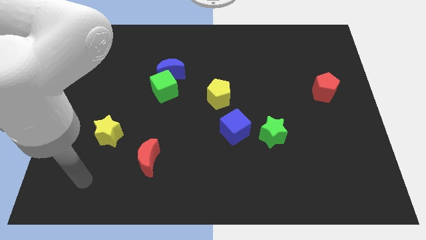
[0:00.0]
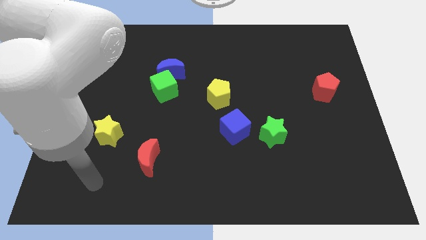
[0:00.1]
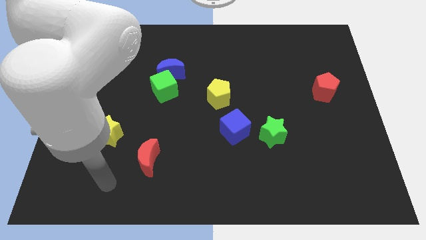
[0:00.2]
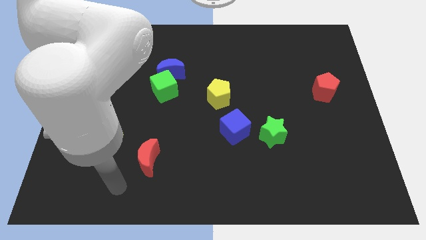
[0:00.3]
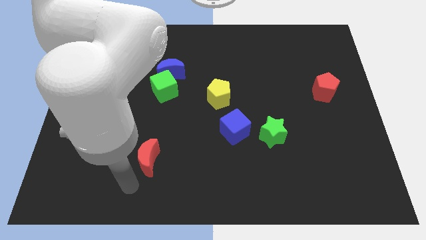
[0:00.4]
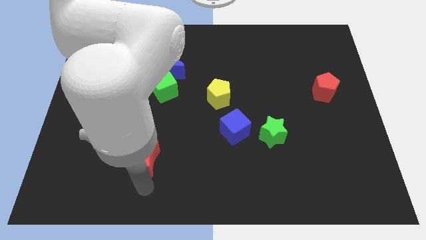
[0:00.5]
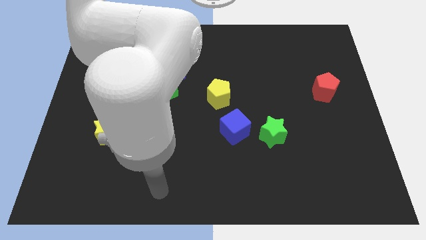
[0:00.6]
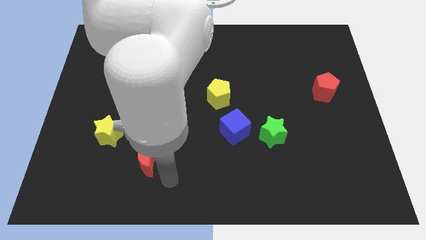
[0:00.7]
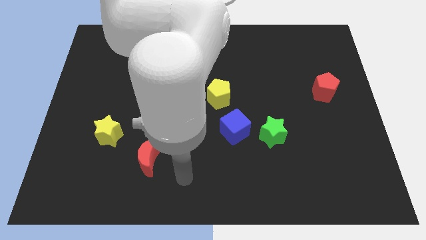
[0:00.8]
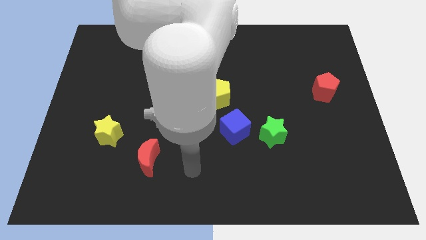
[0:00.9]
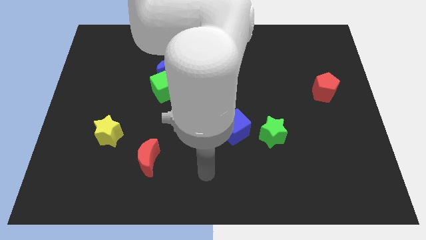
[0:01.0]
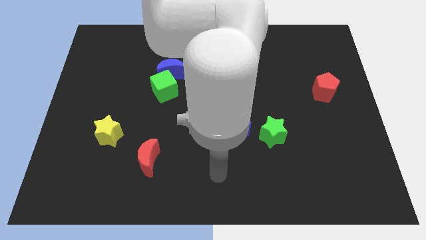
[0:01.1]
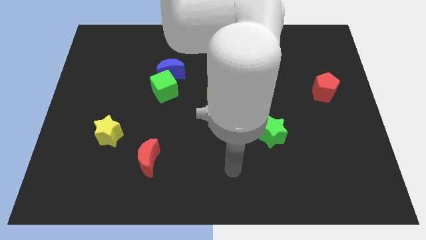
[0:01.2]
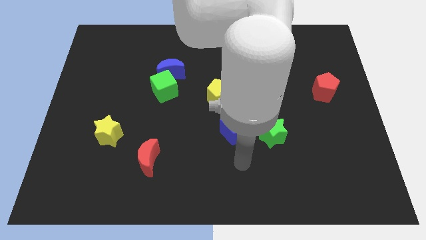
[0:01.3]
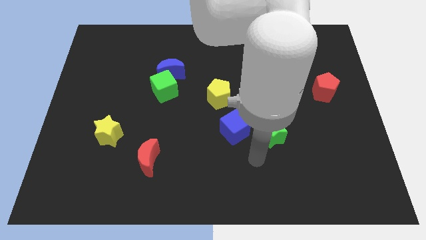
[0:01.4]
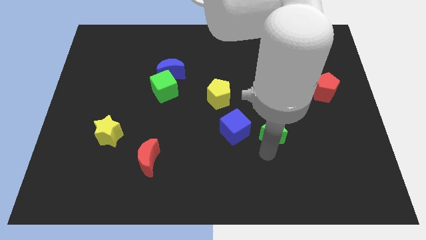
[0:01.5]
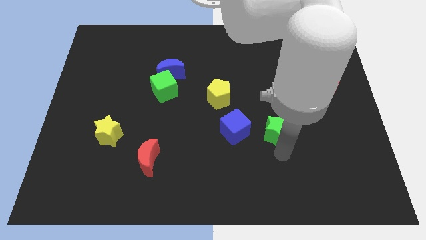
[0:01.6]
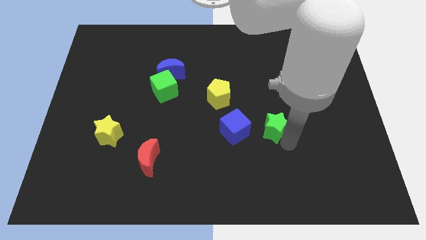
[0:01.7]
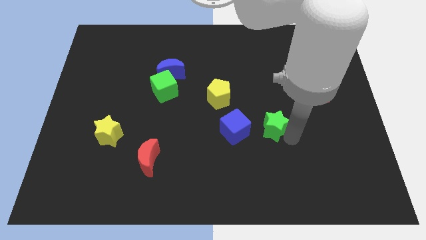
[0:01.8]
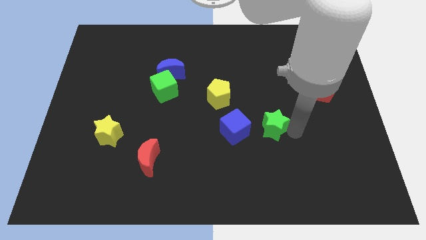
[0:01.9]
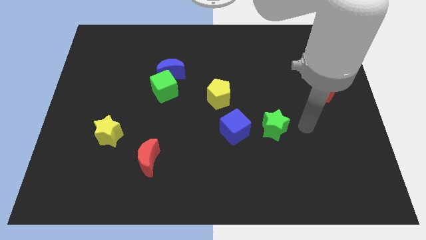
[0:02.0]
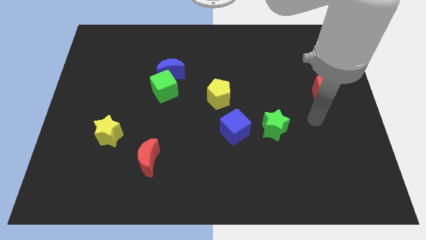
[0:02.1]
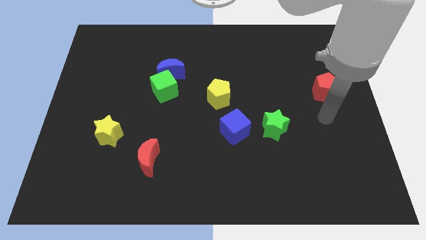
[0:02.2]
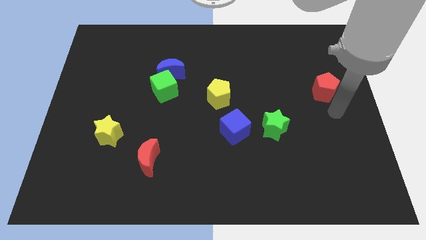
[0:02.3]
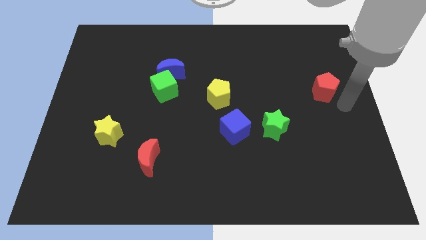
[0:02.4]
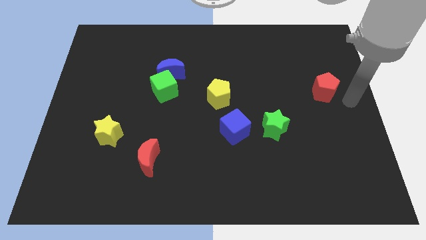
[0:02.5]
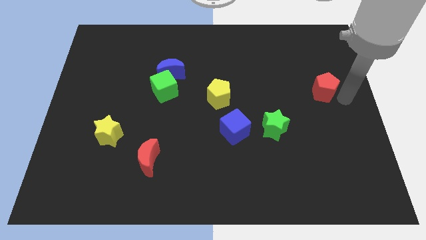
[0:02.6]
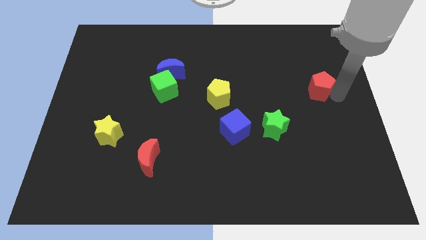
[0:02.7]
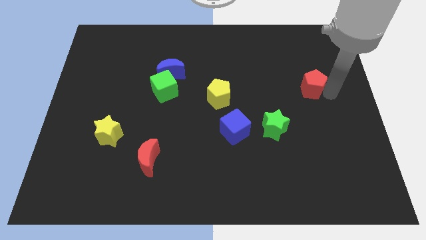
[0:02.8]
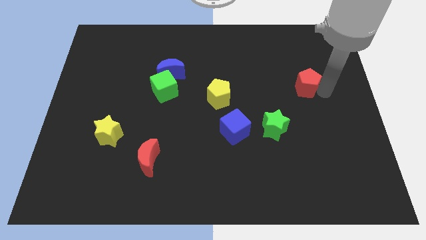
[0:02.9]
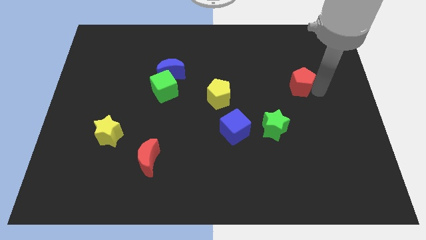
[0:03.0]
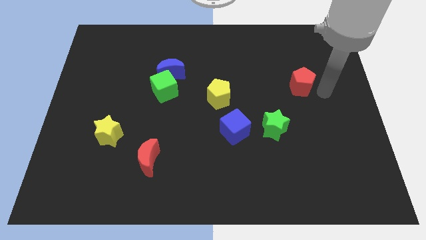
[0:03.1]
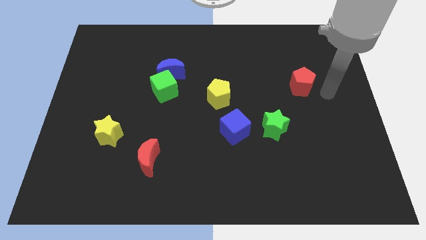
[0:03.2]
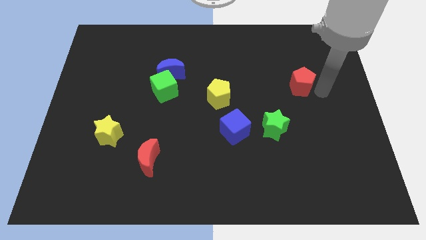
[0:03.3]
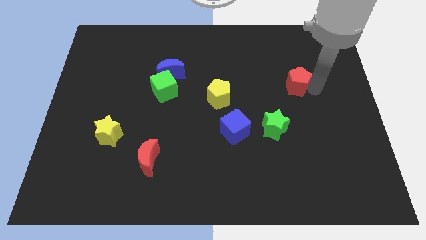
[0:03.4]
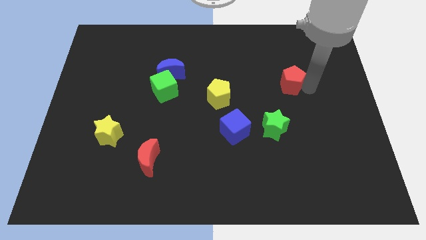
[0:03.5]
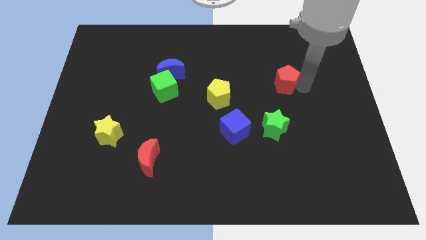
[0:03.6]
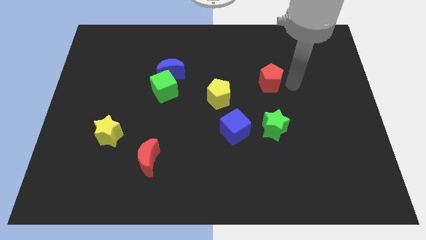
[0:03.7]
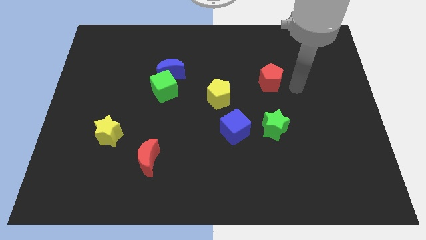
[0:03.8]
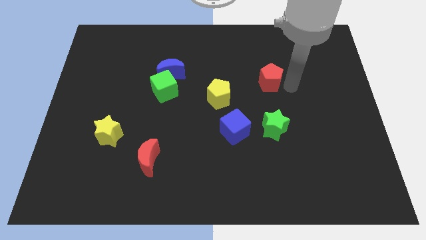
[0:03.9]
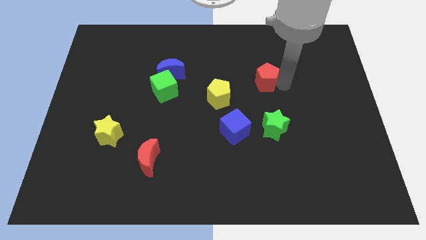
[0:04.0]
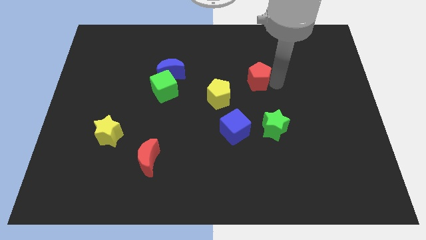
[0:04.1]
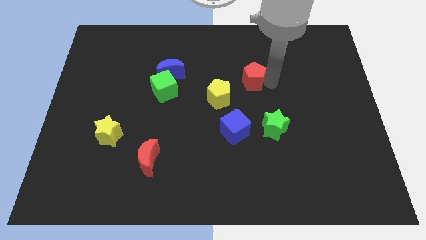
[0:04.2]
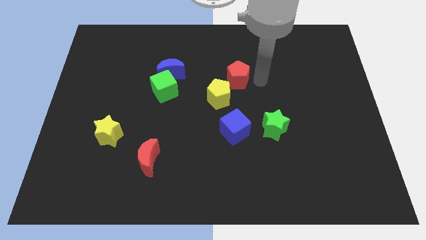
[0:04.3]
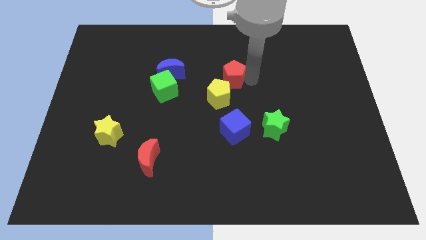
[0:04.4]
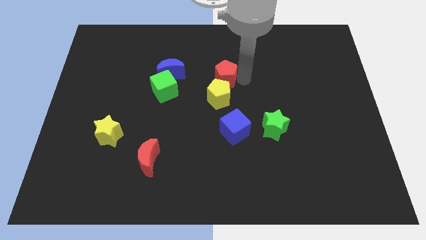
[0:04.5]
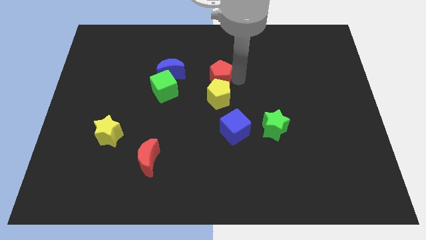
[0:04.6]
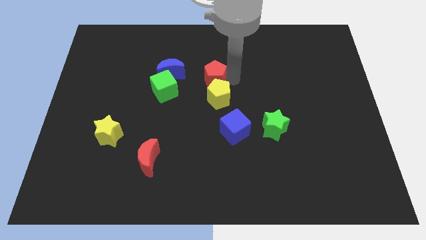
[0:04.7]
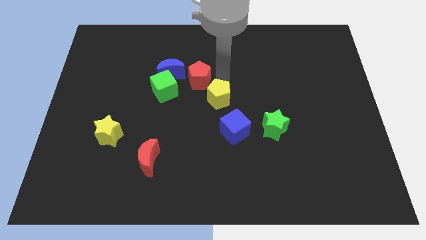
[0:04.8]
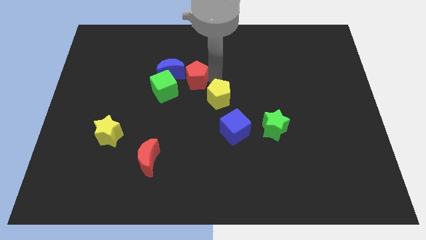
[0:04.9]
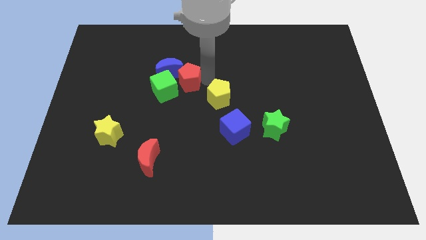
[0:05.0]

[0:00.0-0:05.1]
slide the red pentagon close to the blue moon

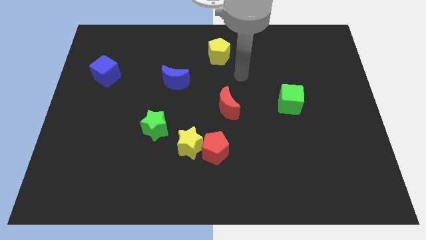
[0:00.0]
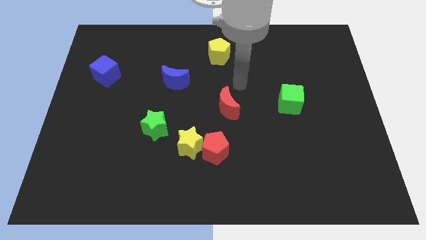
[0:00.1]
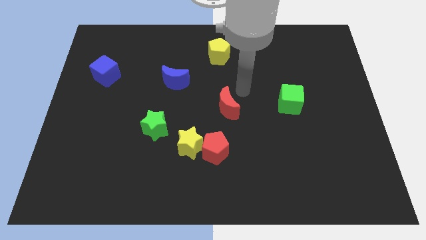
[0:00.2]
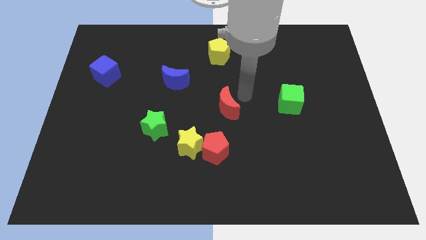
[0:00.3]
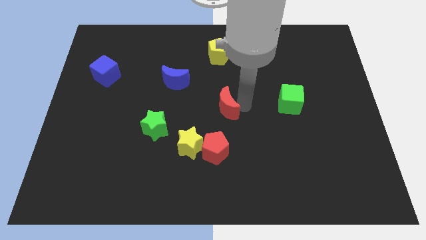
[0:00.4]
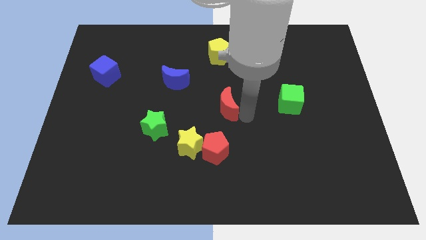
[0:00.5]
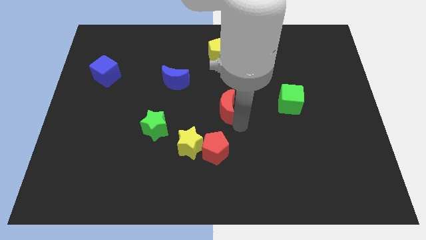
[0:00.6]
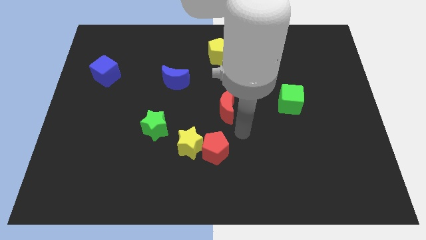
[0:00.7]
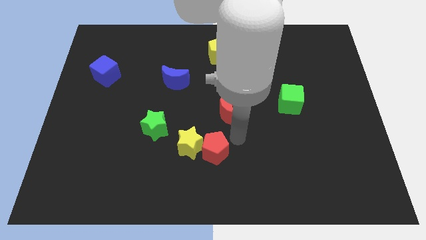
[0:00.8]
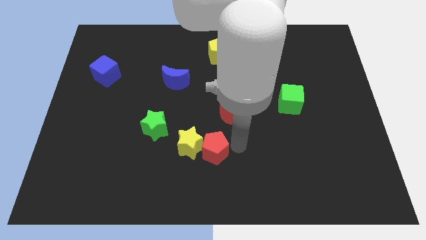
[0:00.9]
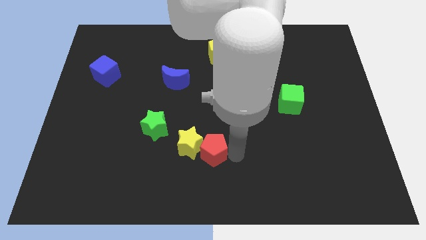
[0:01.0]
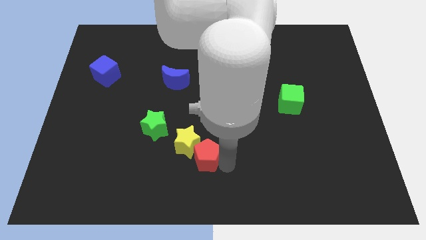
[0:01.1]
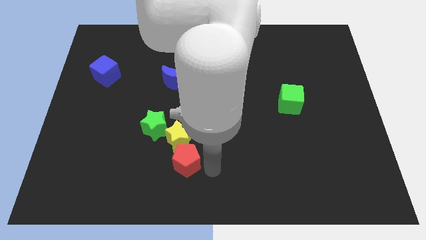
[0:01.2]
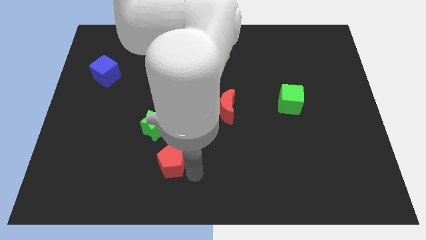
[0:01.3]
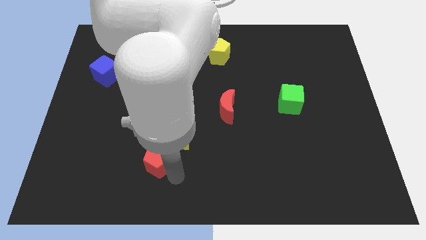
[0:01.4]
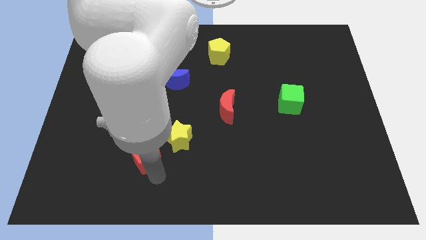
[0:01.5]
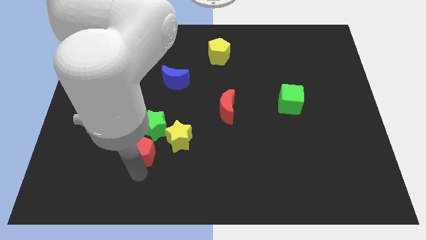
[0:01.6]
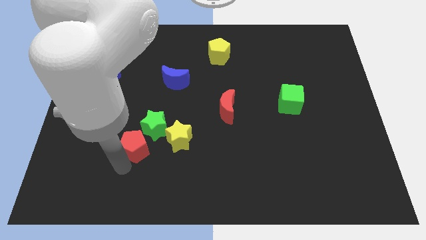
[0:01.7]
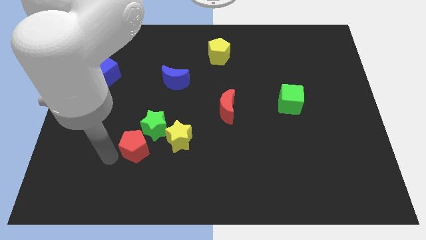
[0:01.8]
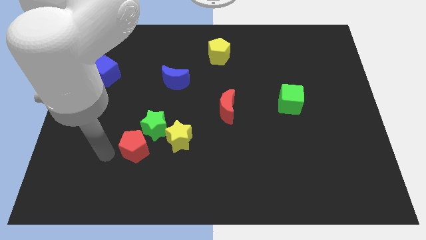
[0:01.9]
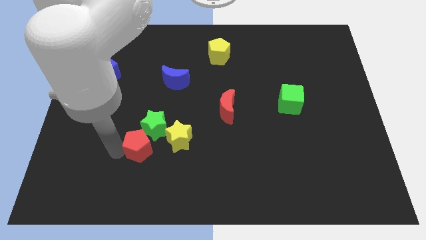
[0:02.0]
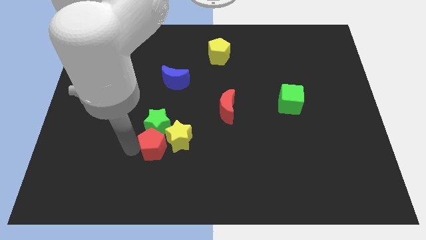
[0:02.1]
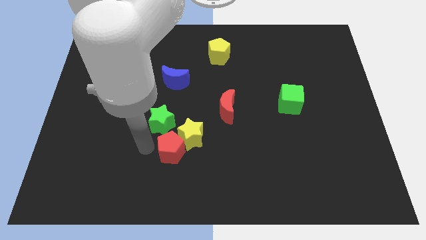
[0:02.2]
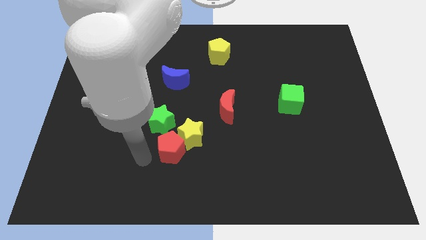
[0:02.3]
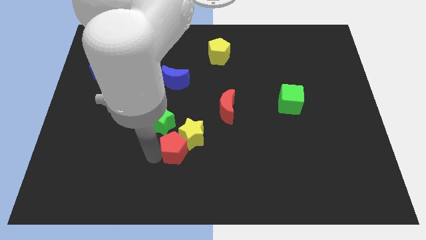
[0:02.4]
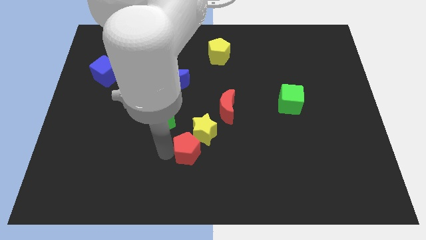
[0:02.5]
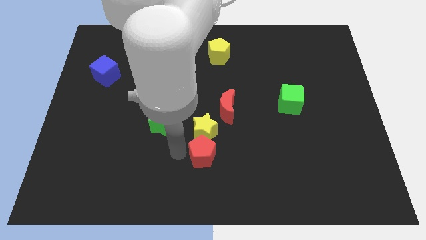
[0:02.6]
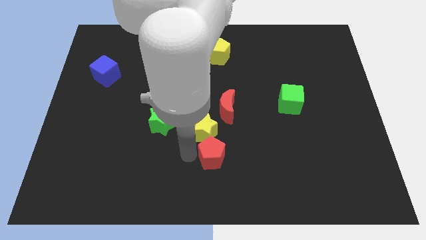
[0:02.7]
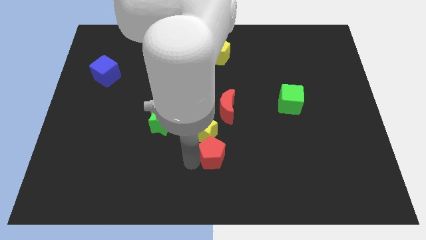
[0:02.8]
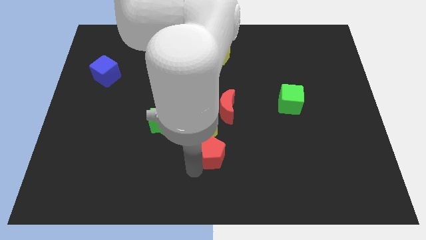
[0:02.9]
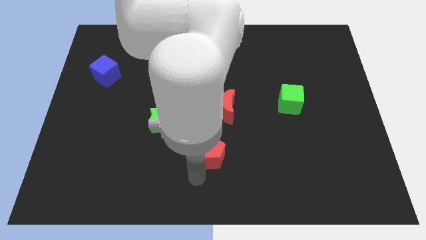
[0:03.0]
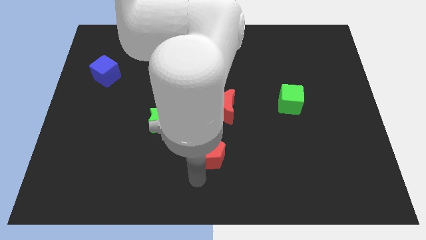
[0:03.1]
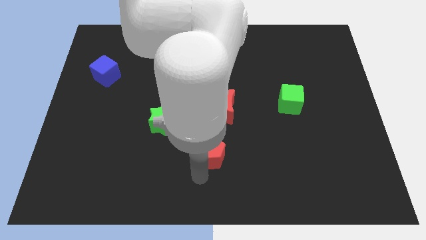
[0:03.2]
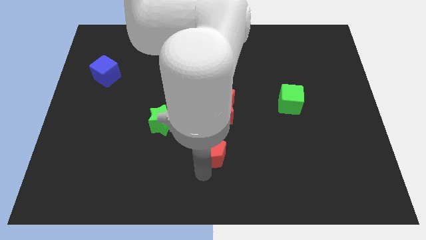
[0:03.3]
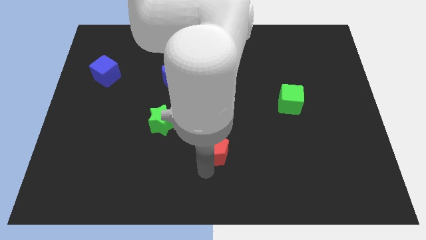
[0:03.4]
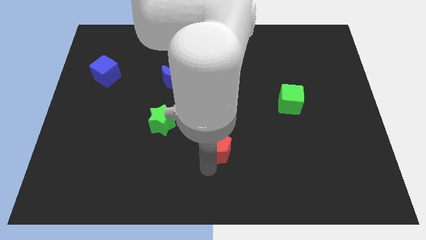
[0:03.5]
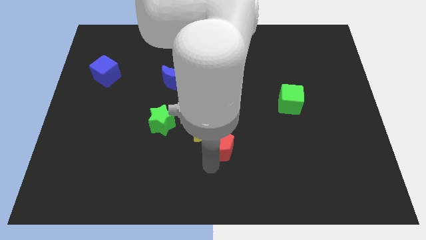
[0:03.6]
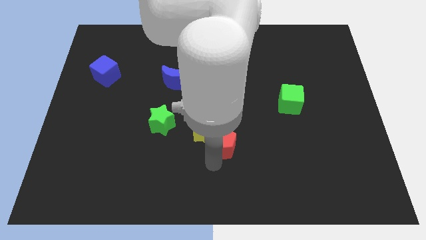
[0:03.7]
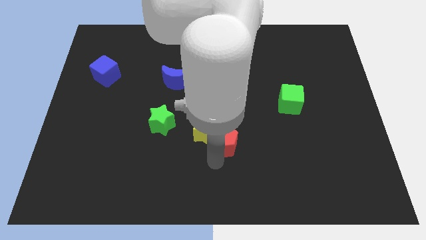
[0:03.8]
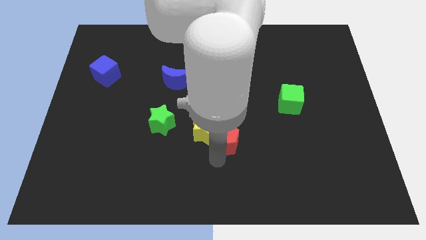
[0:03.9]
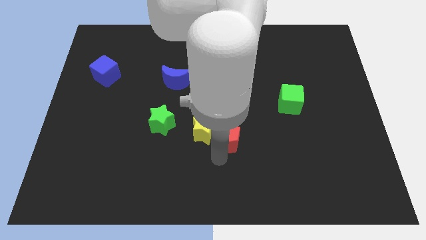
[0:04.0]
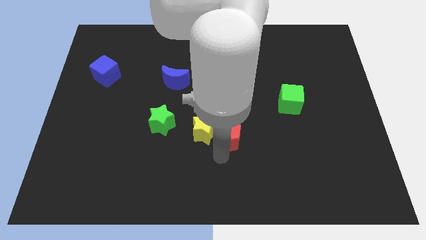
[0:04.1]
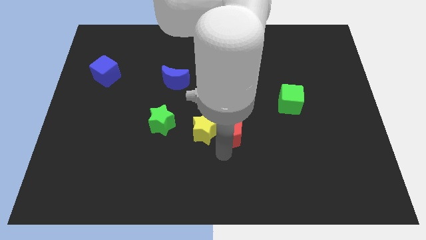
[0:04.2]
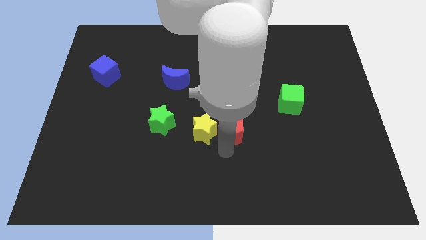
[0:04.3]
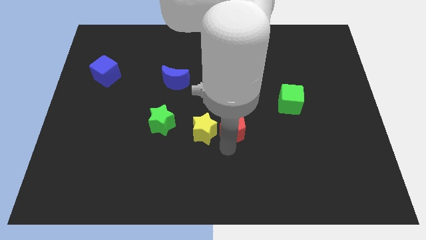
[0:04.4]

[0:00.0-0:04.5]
push the red pentagon towards the red moon
